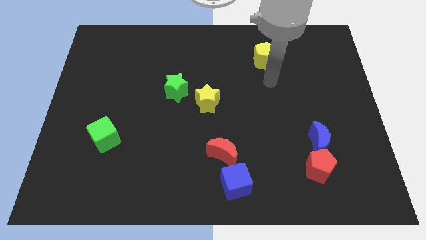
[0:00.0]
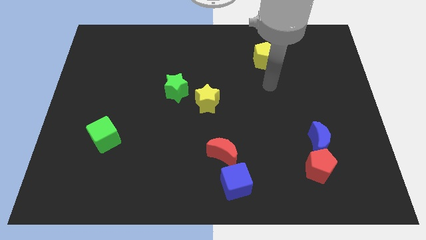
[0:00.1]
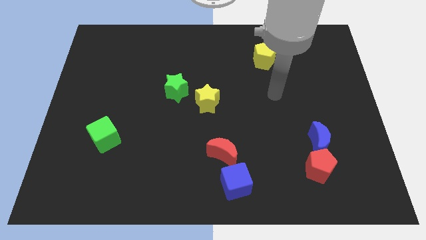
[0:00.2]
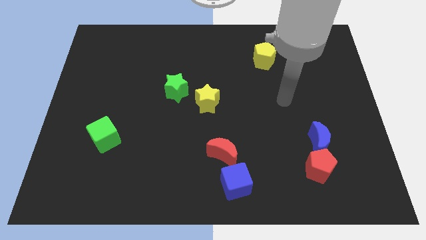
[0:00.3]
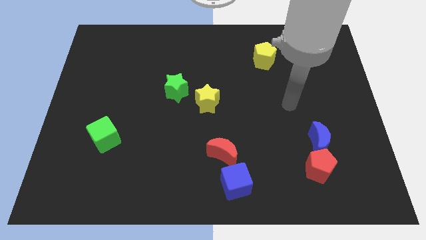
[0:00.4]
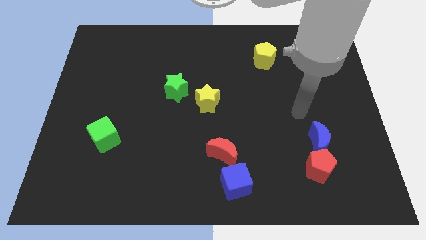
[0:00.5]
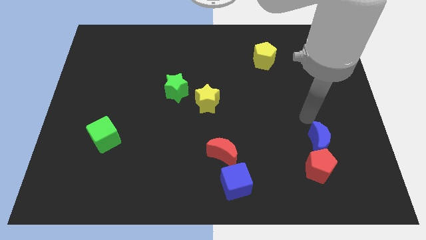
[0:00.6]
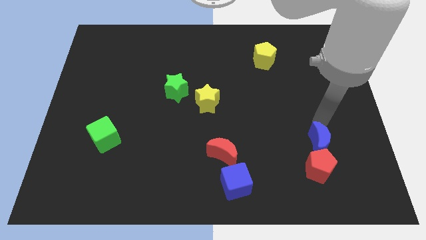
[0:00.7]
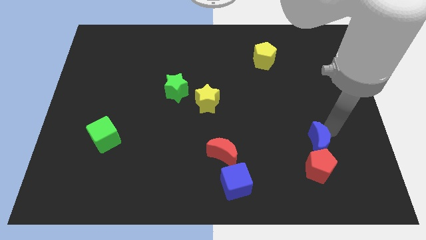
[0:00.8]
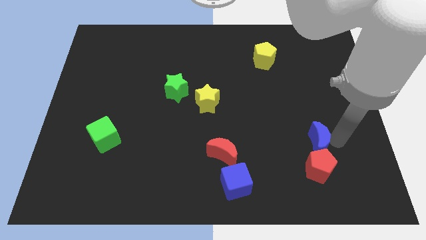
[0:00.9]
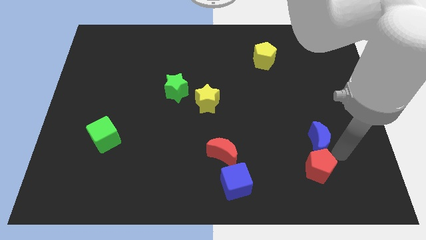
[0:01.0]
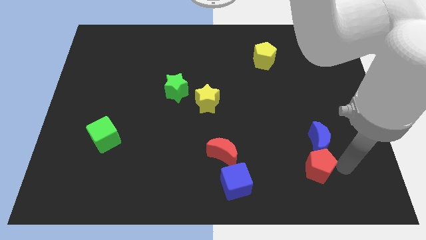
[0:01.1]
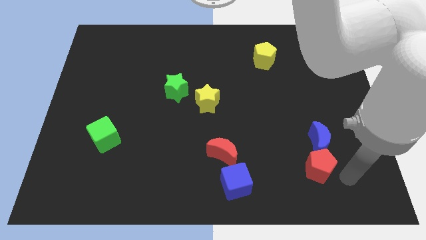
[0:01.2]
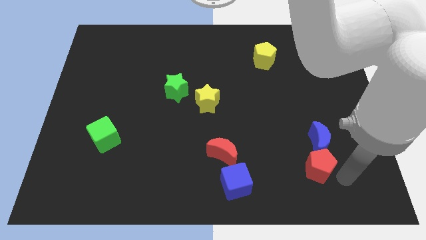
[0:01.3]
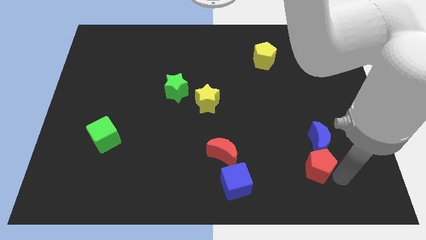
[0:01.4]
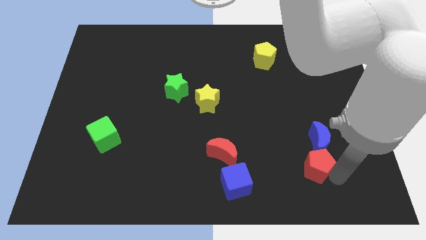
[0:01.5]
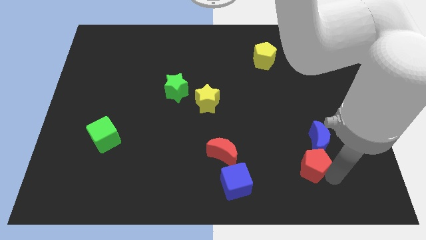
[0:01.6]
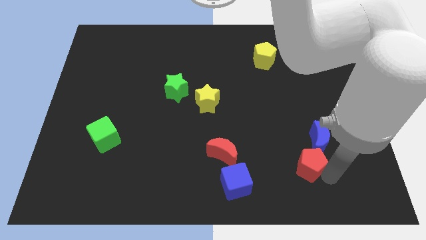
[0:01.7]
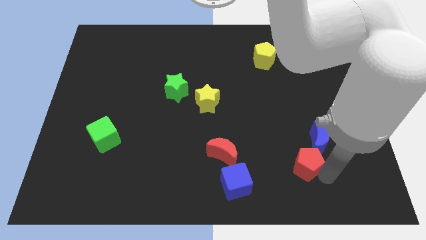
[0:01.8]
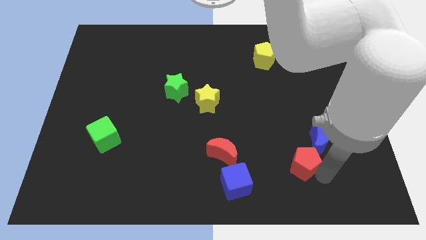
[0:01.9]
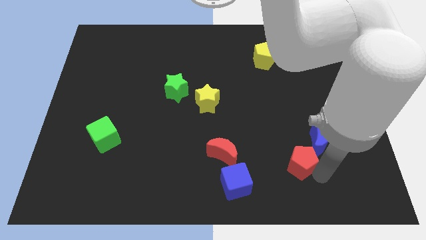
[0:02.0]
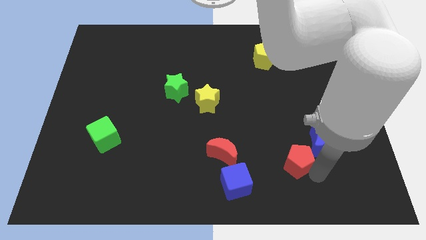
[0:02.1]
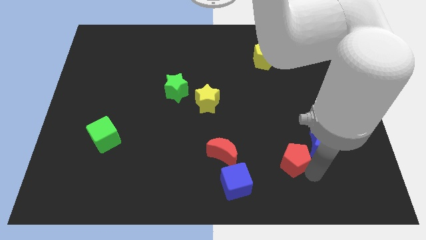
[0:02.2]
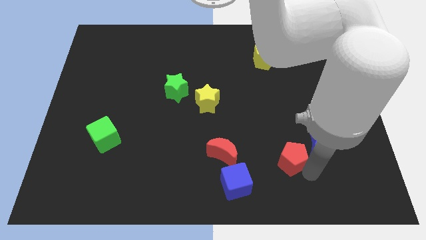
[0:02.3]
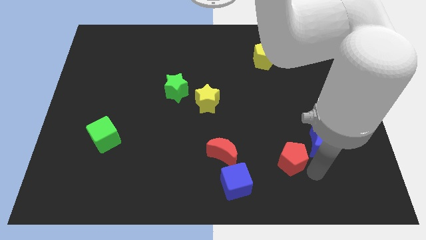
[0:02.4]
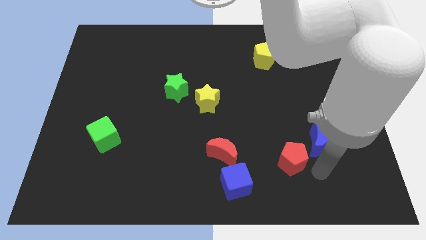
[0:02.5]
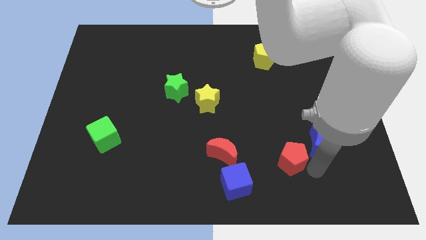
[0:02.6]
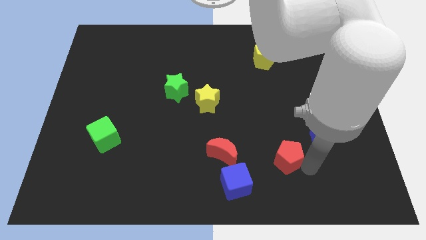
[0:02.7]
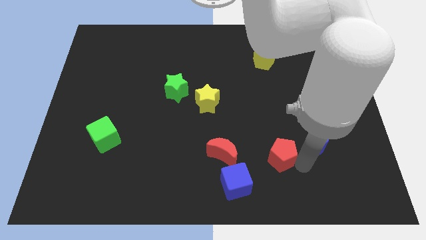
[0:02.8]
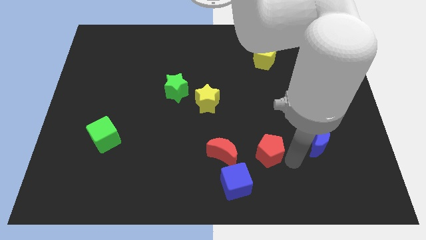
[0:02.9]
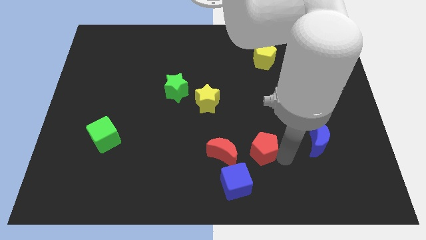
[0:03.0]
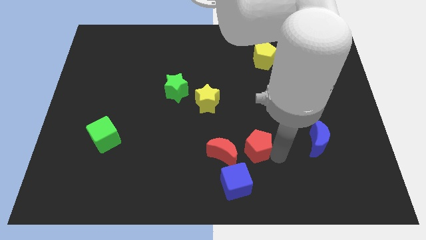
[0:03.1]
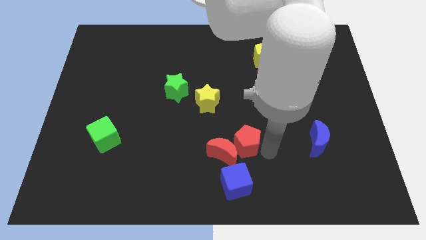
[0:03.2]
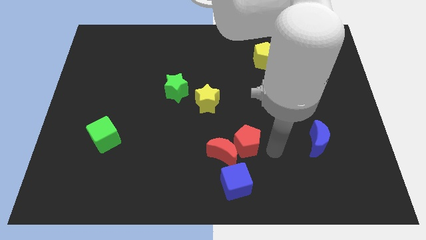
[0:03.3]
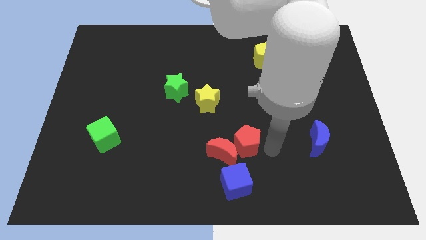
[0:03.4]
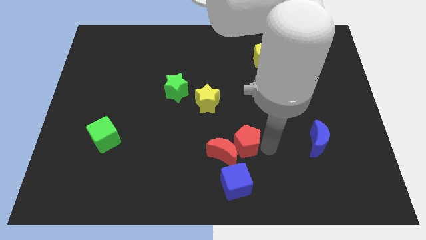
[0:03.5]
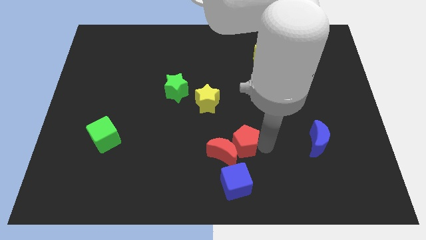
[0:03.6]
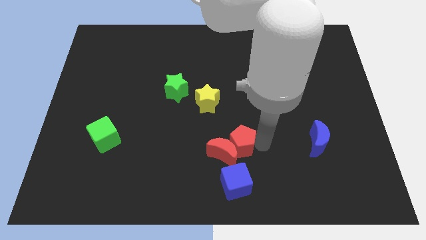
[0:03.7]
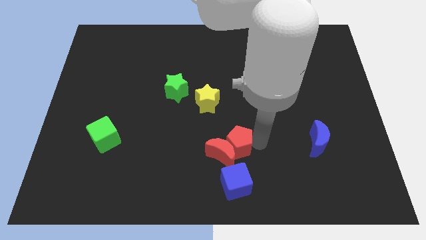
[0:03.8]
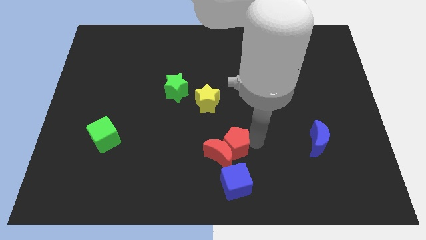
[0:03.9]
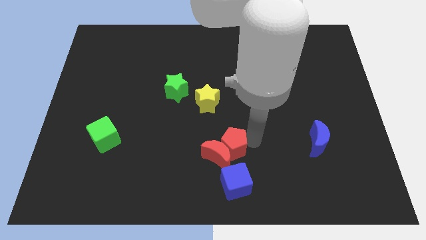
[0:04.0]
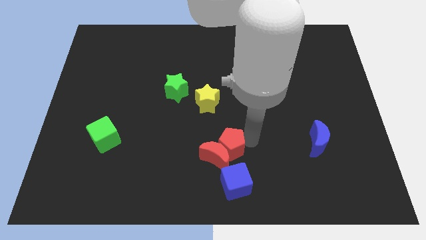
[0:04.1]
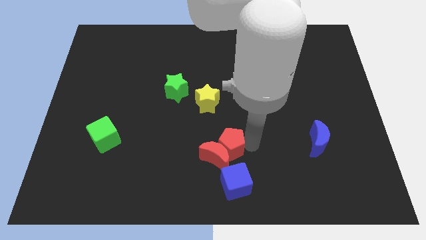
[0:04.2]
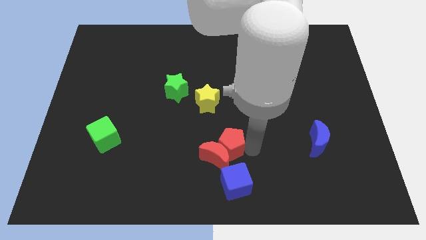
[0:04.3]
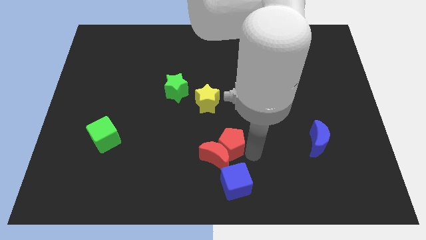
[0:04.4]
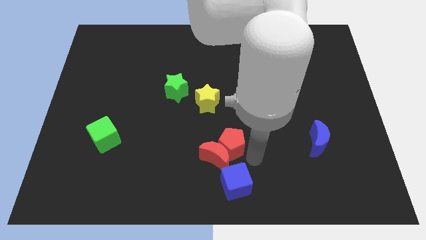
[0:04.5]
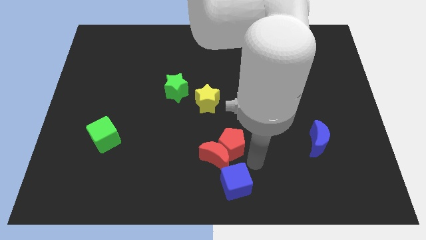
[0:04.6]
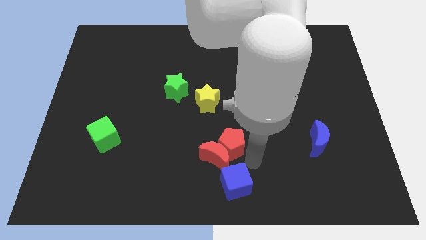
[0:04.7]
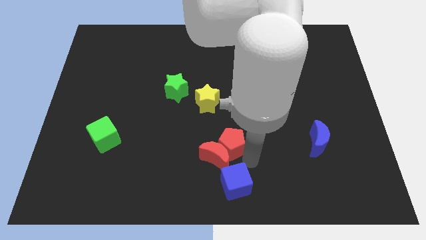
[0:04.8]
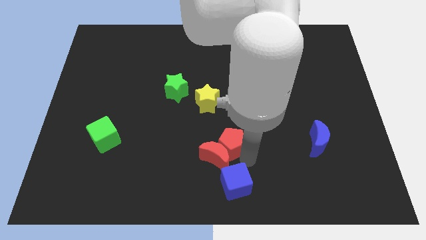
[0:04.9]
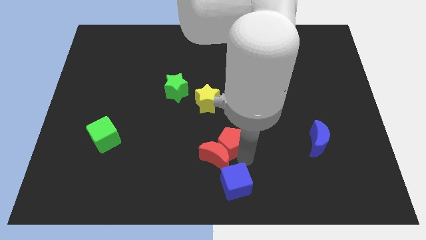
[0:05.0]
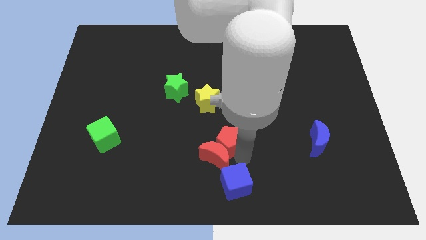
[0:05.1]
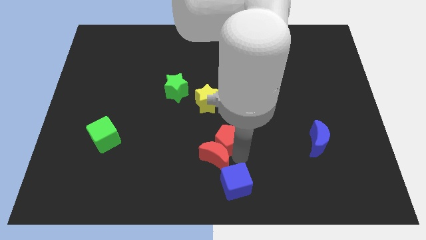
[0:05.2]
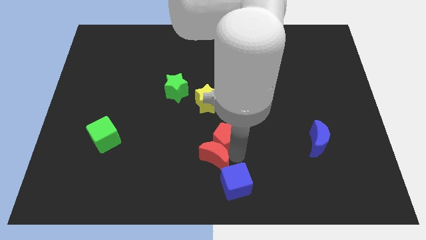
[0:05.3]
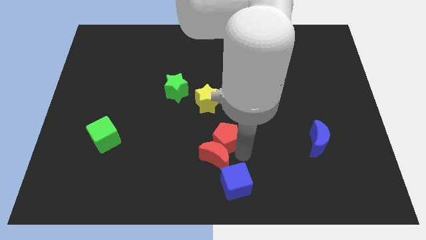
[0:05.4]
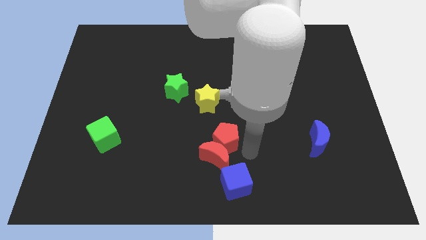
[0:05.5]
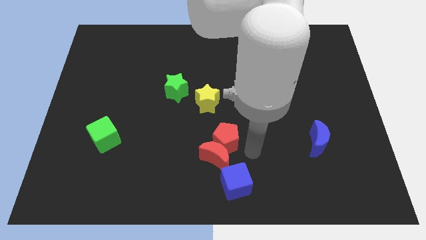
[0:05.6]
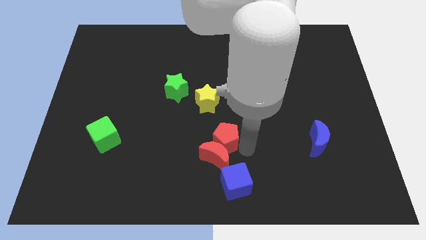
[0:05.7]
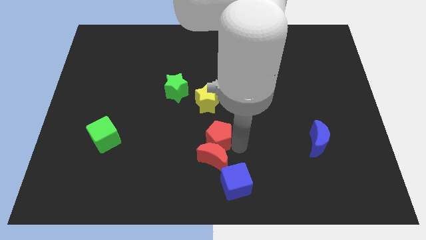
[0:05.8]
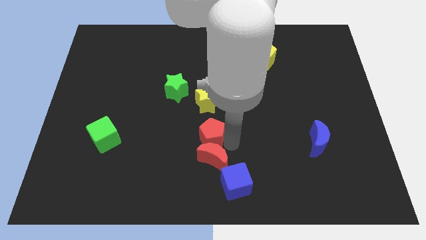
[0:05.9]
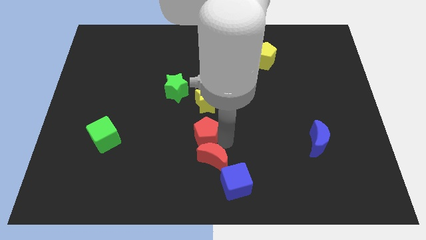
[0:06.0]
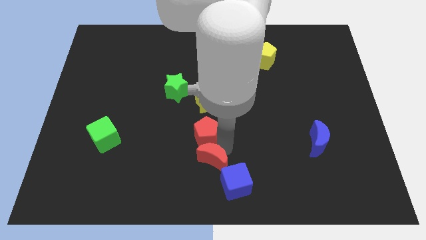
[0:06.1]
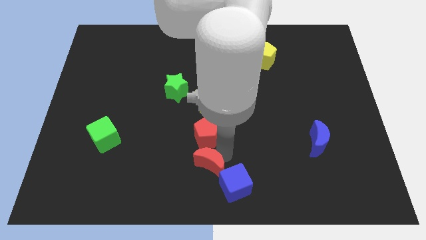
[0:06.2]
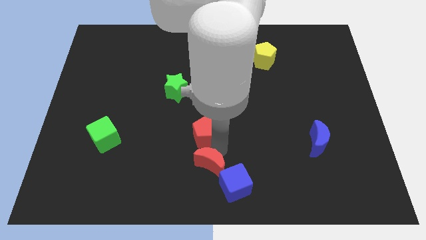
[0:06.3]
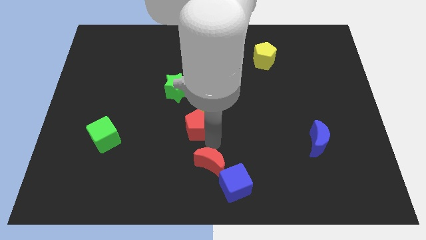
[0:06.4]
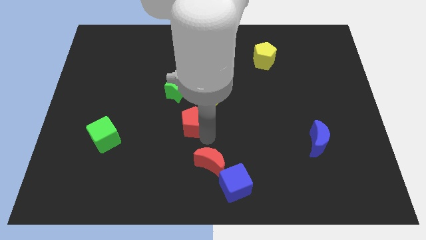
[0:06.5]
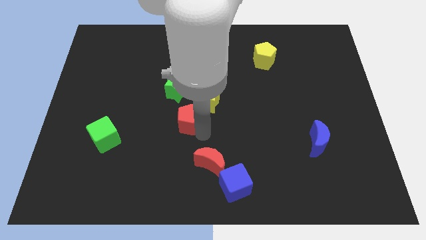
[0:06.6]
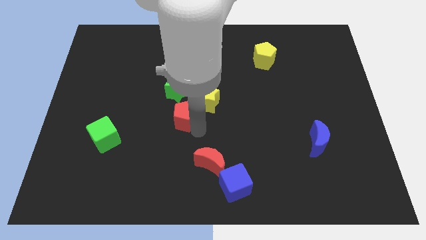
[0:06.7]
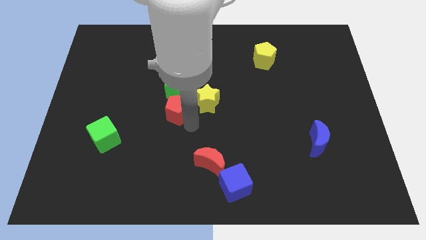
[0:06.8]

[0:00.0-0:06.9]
move the red pentagon close to the green star
